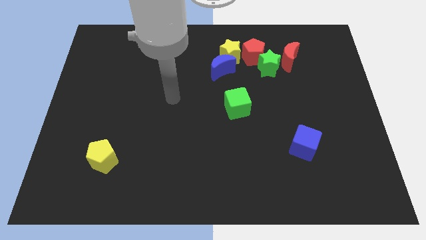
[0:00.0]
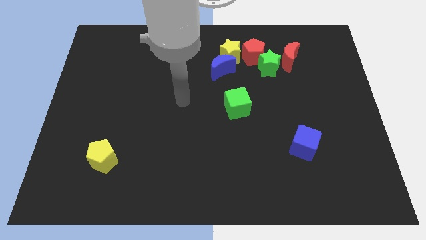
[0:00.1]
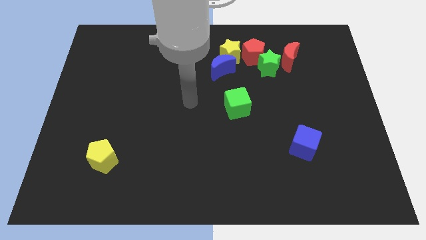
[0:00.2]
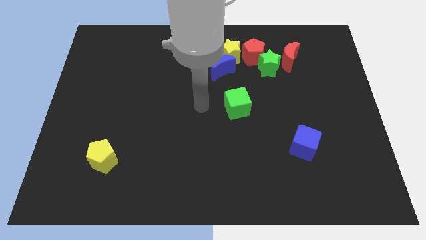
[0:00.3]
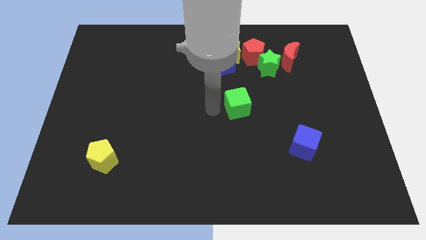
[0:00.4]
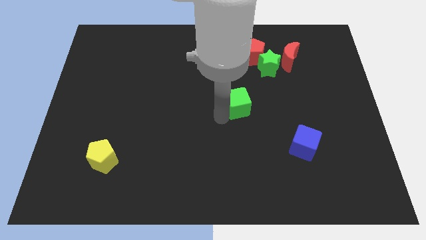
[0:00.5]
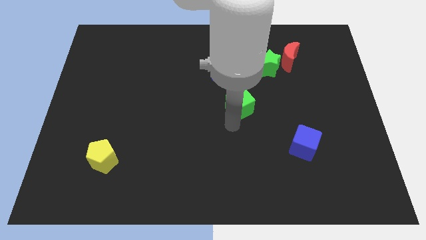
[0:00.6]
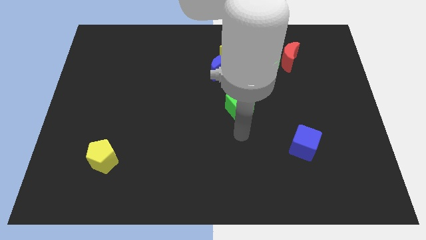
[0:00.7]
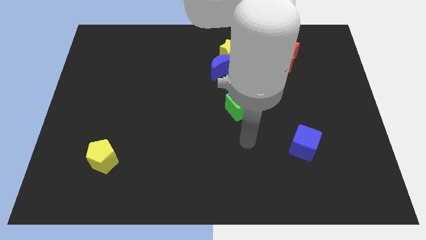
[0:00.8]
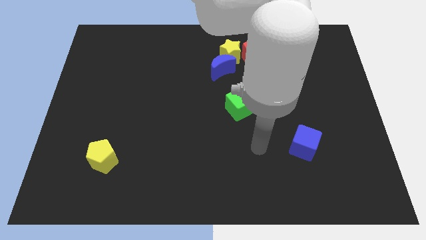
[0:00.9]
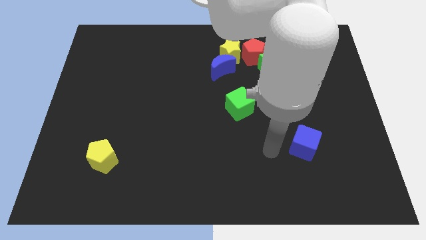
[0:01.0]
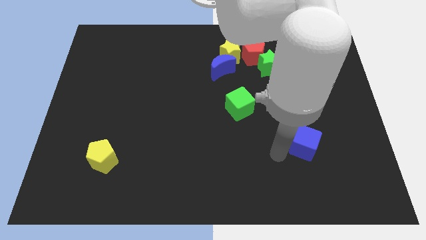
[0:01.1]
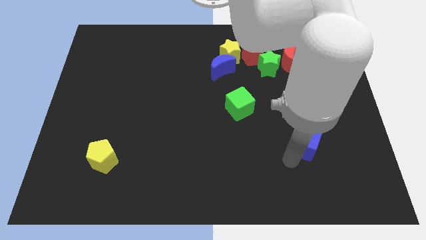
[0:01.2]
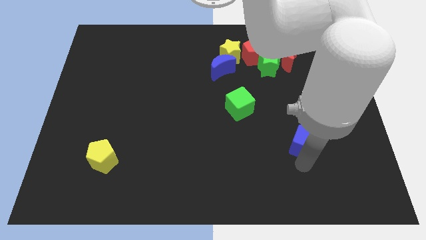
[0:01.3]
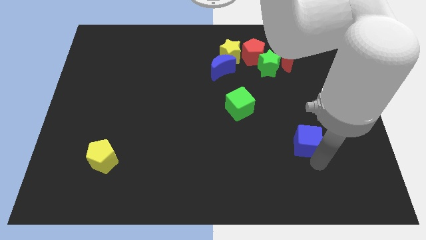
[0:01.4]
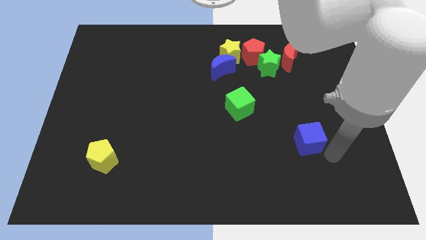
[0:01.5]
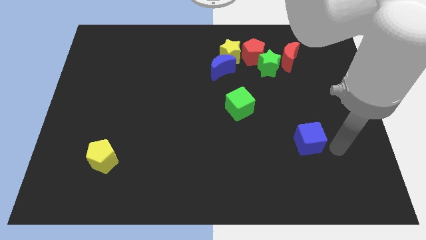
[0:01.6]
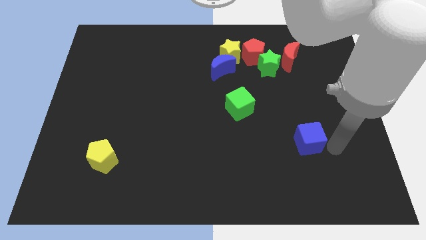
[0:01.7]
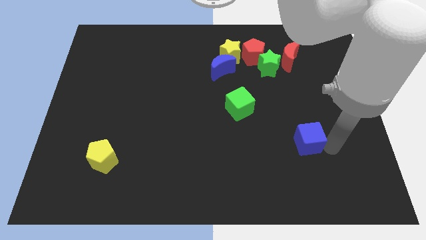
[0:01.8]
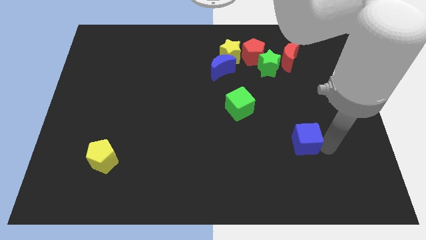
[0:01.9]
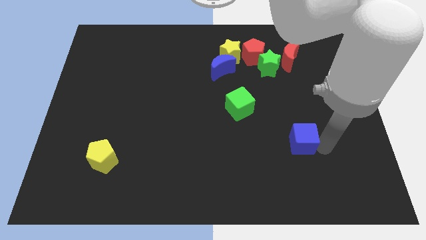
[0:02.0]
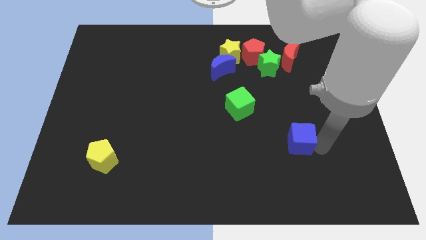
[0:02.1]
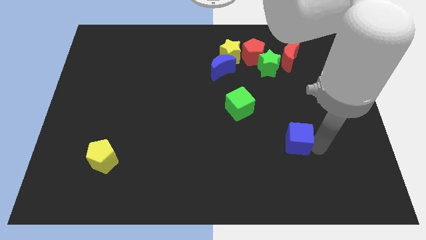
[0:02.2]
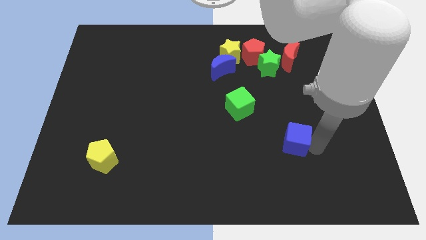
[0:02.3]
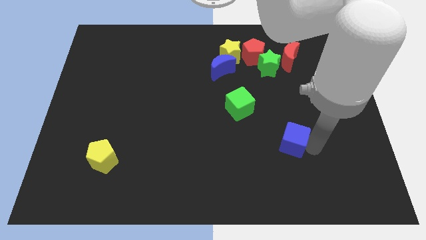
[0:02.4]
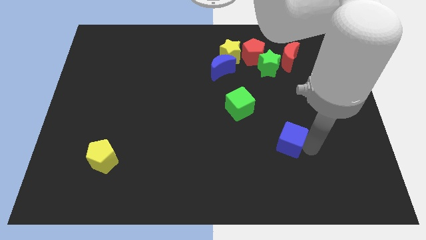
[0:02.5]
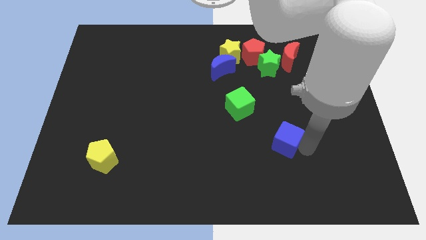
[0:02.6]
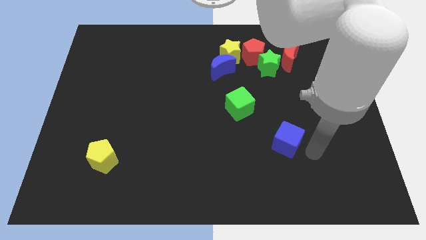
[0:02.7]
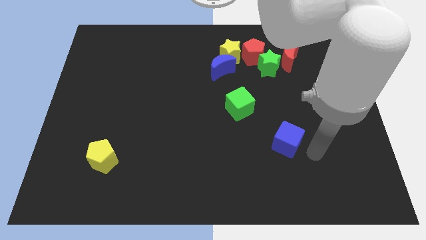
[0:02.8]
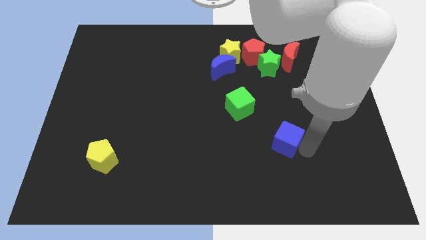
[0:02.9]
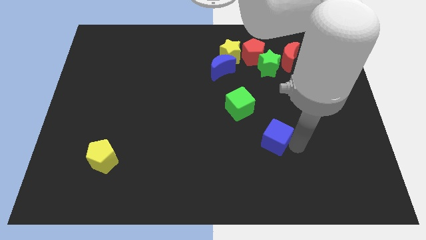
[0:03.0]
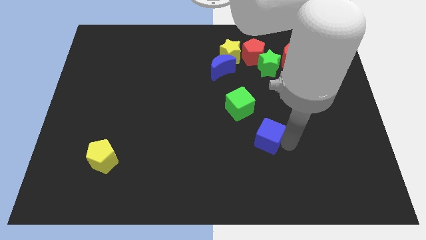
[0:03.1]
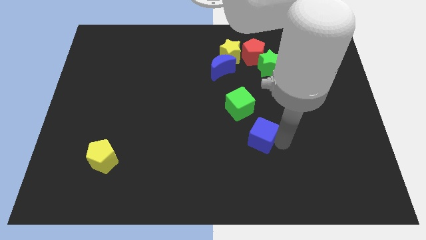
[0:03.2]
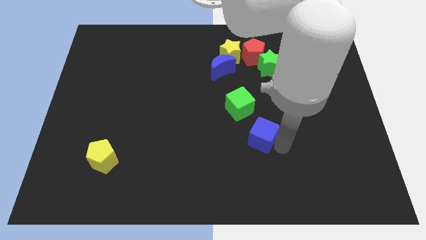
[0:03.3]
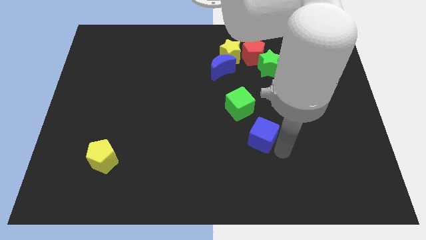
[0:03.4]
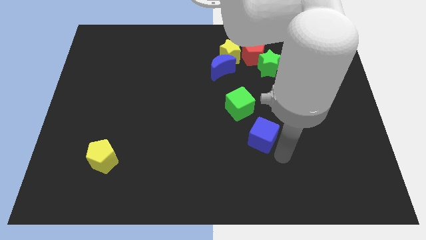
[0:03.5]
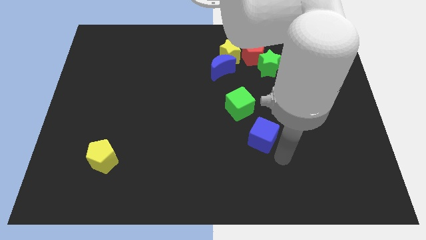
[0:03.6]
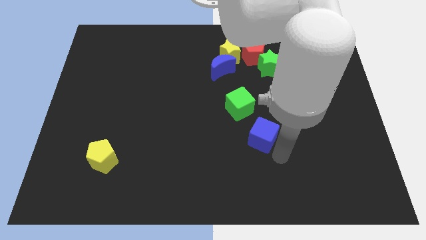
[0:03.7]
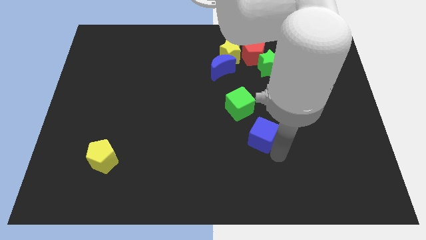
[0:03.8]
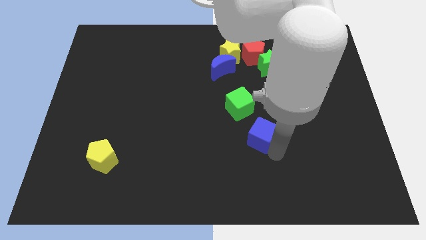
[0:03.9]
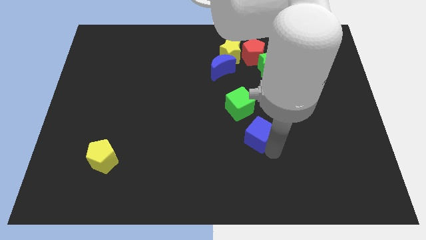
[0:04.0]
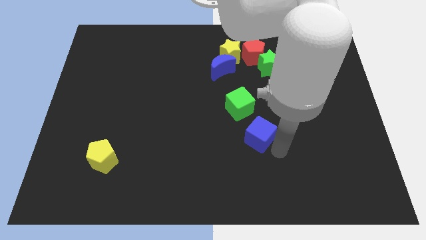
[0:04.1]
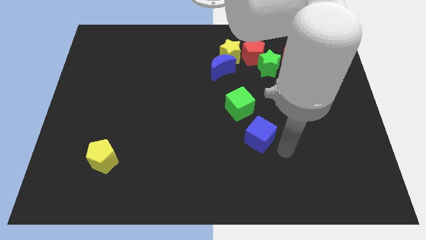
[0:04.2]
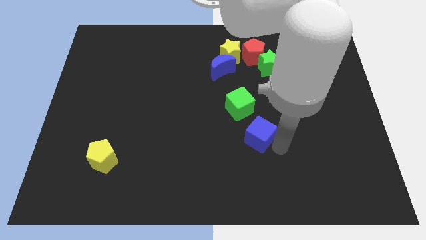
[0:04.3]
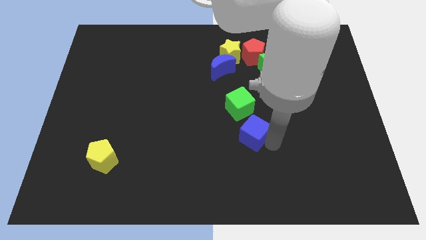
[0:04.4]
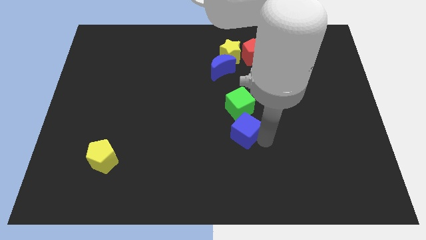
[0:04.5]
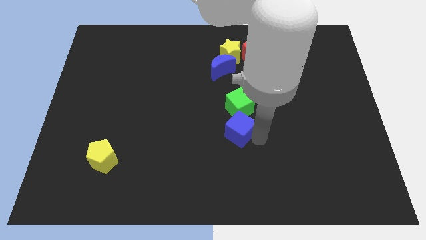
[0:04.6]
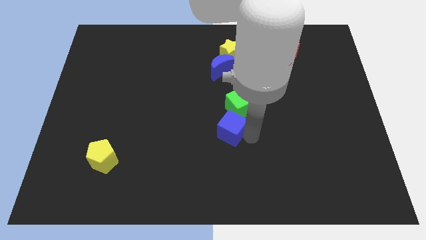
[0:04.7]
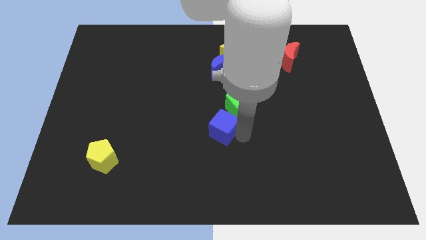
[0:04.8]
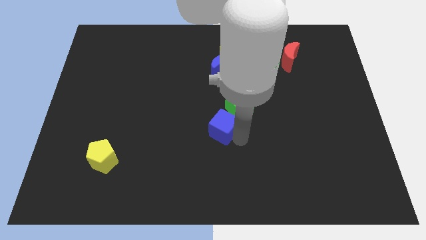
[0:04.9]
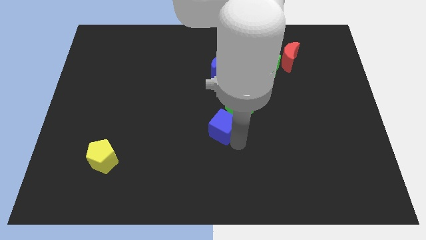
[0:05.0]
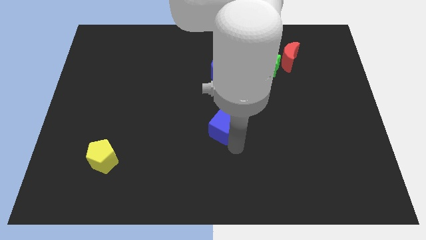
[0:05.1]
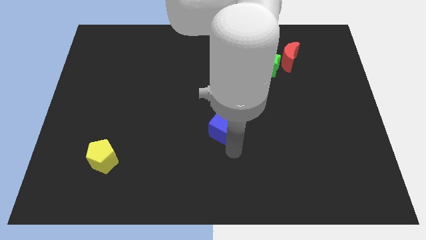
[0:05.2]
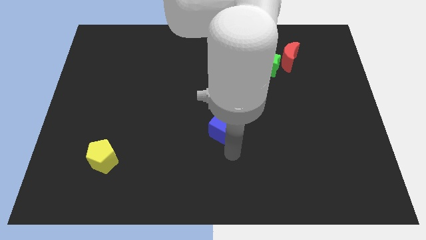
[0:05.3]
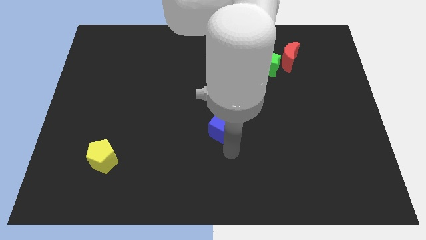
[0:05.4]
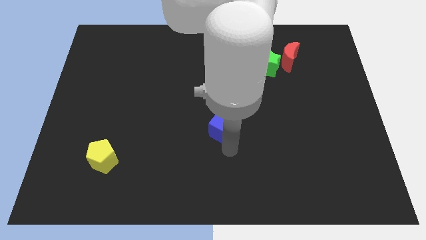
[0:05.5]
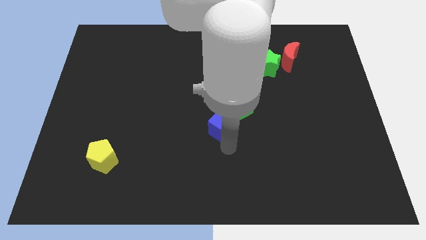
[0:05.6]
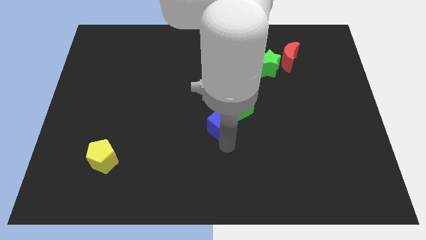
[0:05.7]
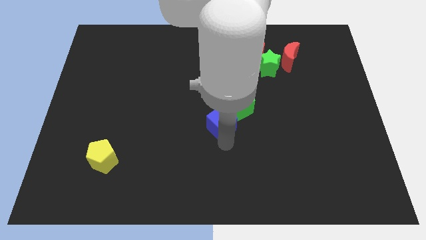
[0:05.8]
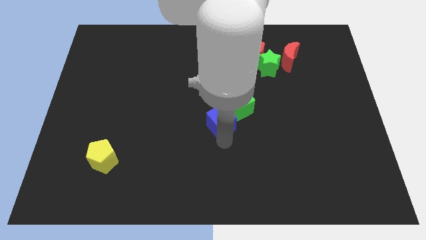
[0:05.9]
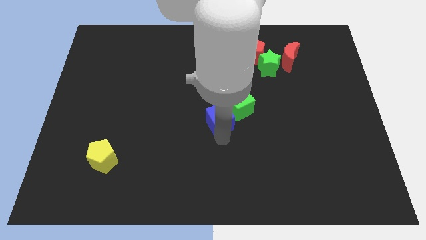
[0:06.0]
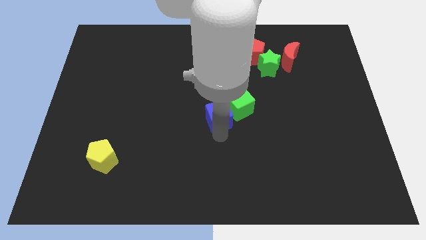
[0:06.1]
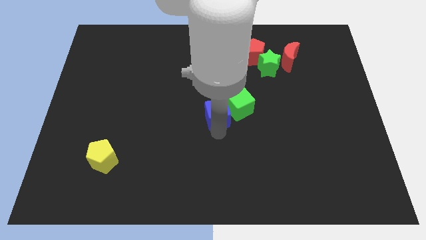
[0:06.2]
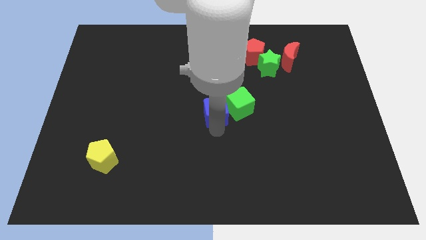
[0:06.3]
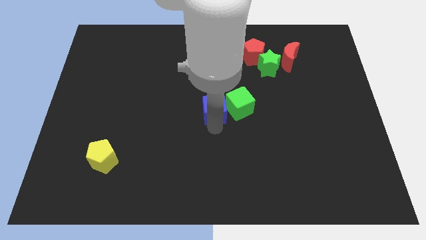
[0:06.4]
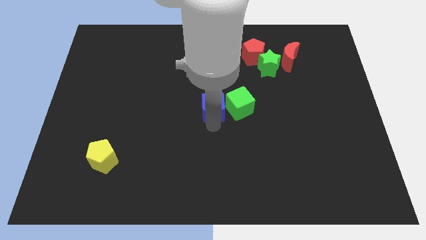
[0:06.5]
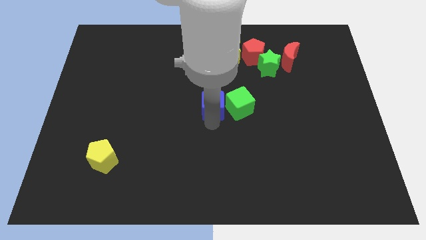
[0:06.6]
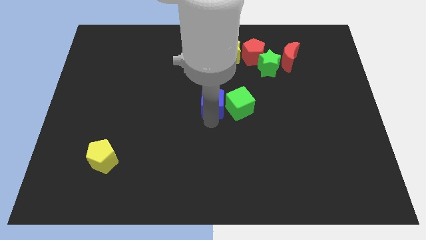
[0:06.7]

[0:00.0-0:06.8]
move the blue cube up and then to the left

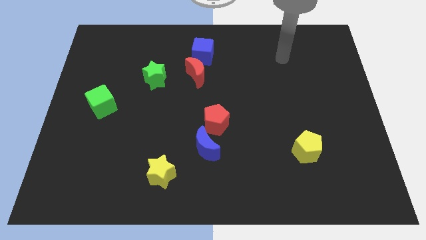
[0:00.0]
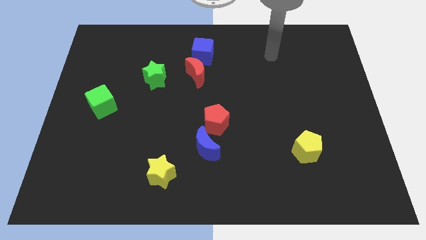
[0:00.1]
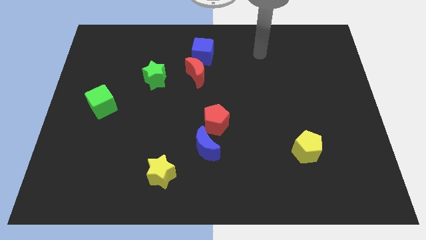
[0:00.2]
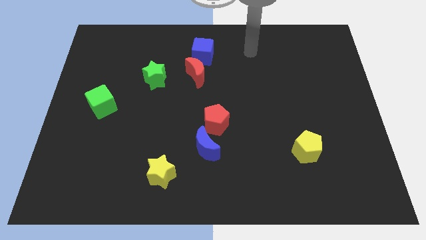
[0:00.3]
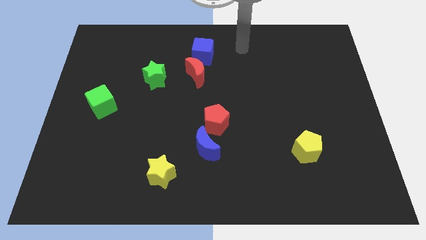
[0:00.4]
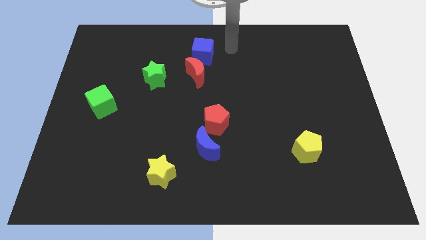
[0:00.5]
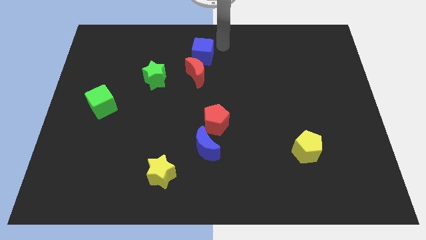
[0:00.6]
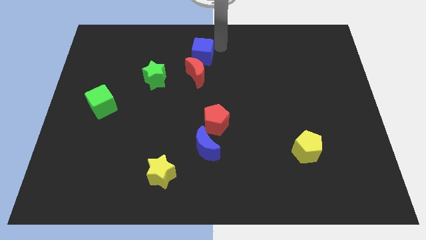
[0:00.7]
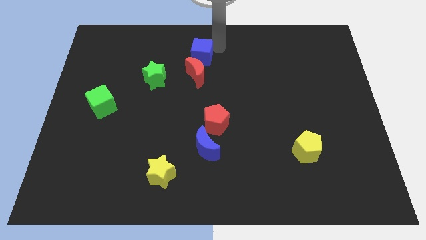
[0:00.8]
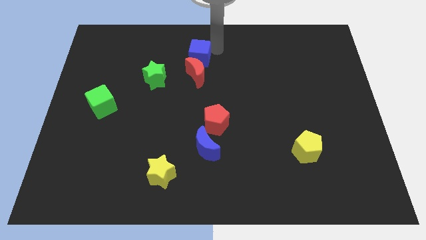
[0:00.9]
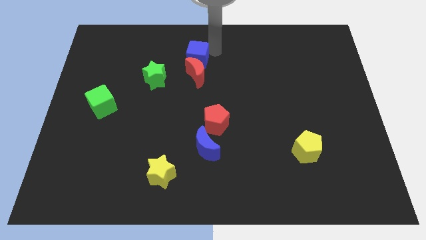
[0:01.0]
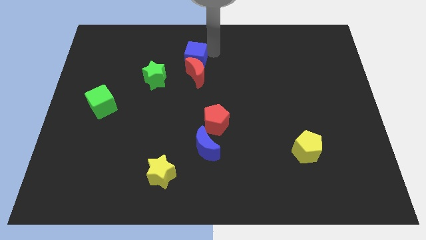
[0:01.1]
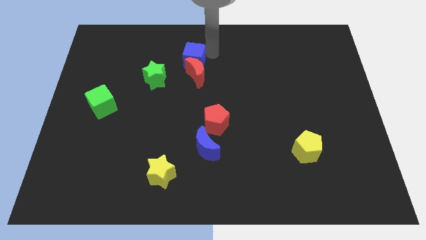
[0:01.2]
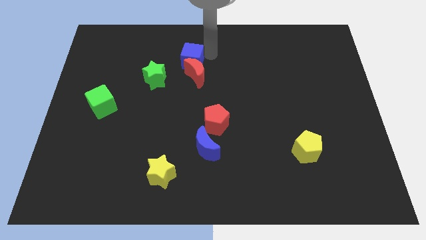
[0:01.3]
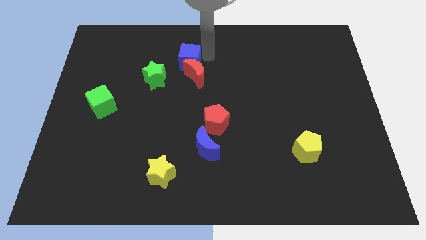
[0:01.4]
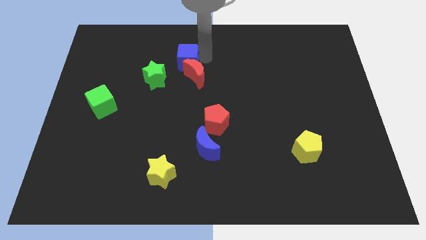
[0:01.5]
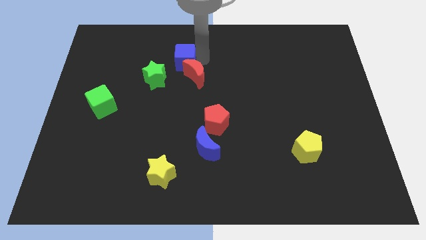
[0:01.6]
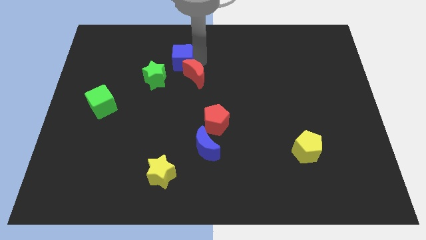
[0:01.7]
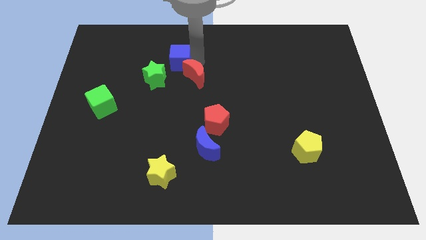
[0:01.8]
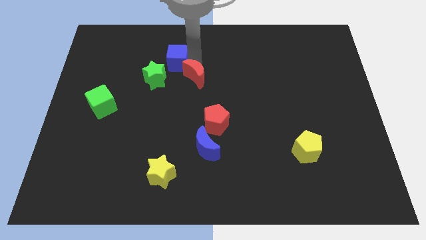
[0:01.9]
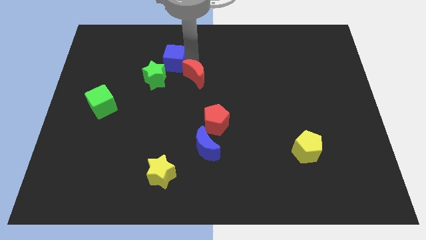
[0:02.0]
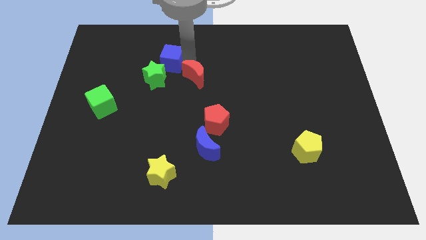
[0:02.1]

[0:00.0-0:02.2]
slightly move the blue cube down and left
